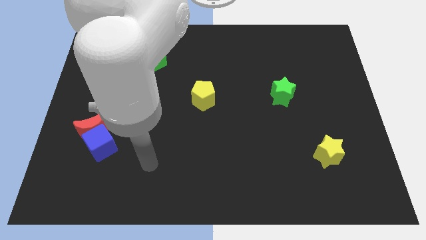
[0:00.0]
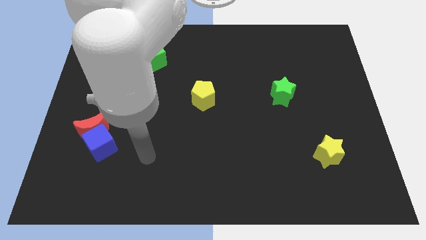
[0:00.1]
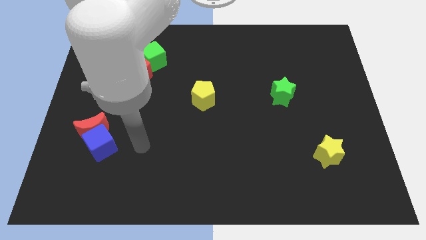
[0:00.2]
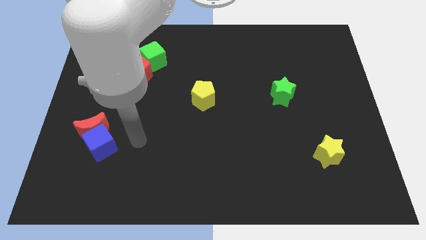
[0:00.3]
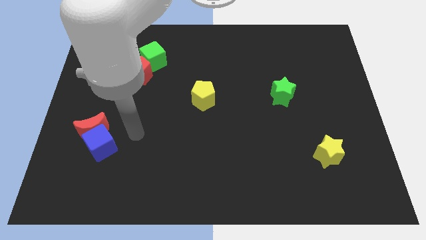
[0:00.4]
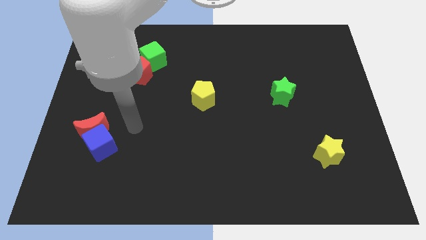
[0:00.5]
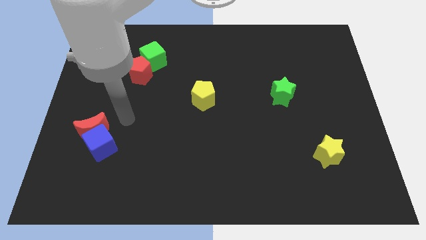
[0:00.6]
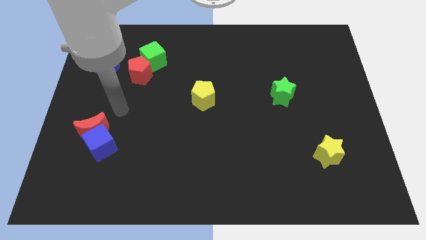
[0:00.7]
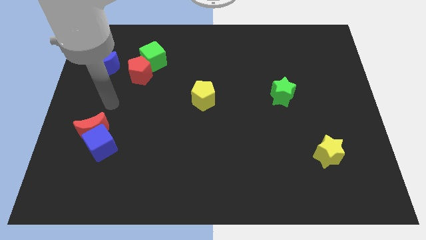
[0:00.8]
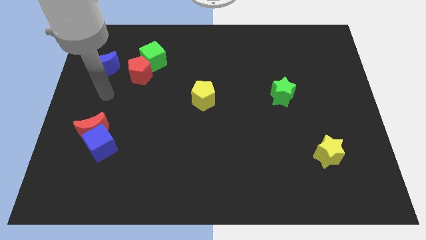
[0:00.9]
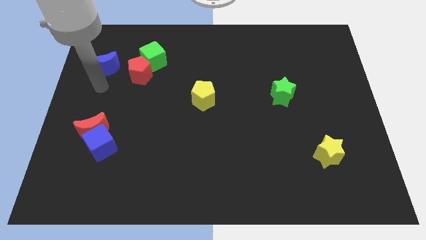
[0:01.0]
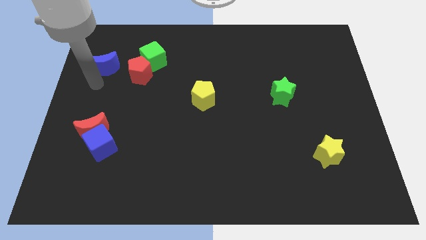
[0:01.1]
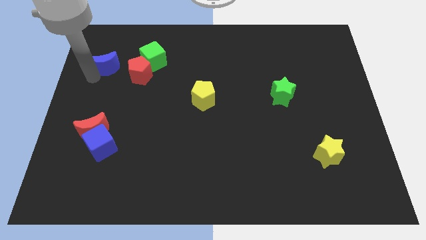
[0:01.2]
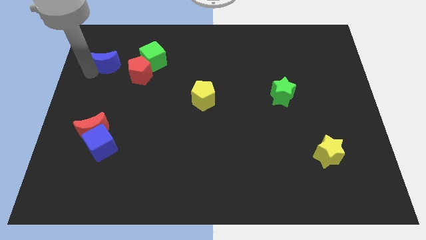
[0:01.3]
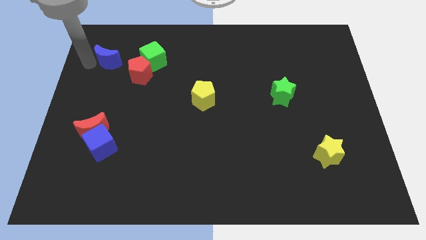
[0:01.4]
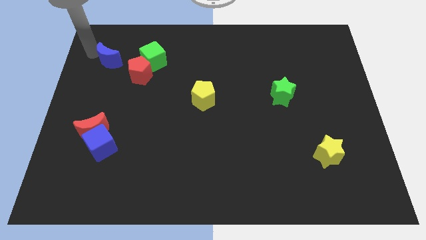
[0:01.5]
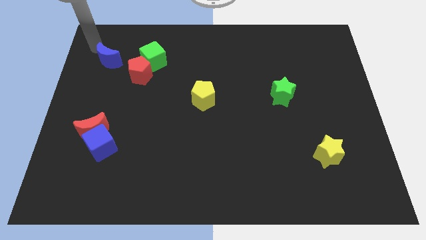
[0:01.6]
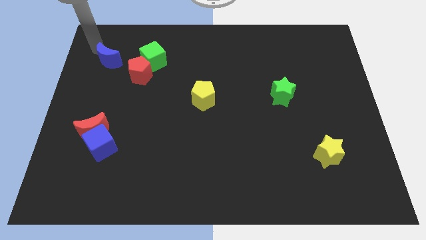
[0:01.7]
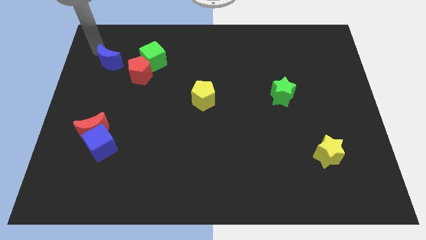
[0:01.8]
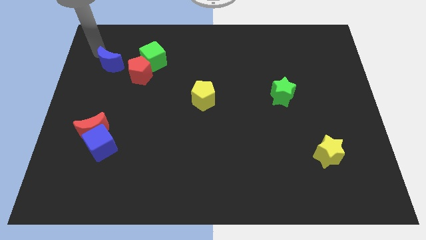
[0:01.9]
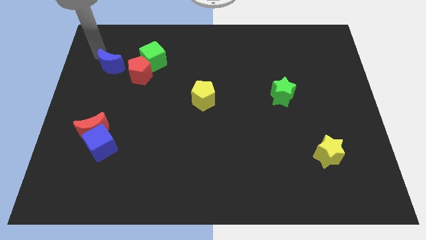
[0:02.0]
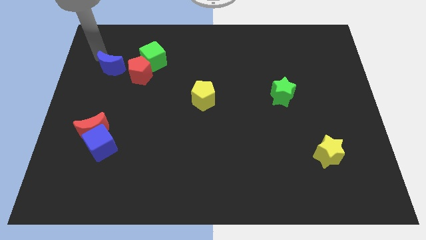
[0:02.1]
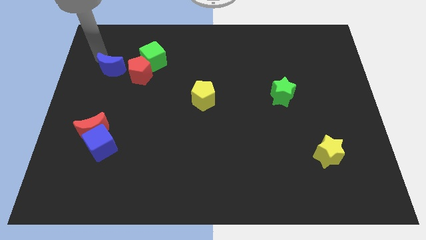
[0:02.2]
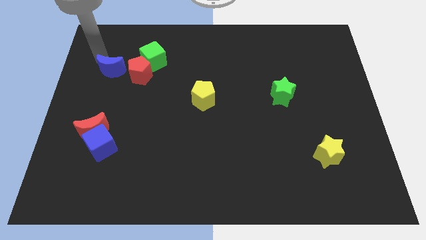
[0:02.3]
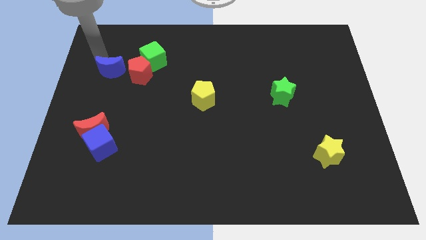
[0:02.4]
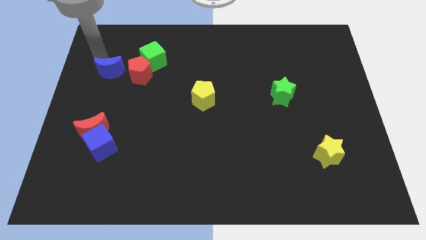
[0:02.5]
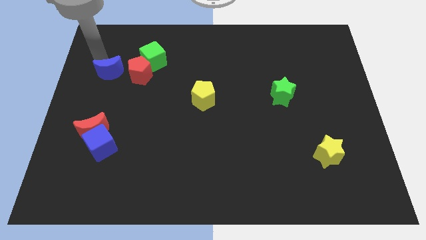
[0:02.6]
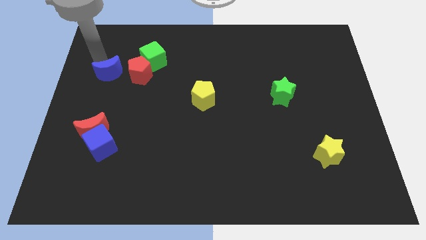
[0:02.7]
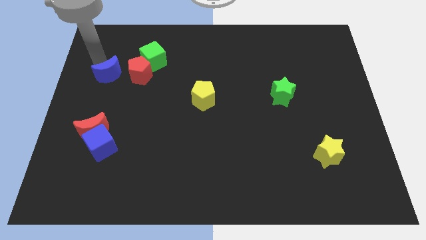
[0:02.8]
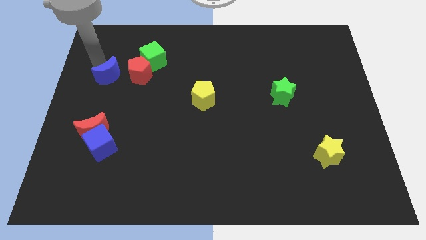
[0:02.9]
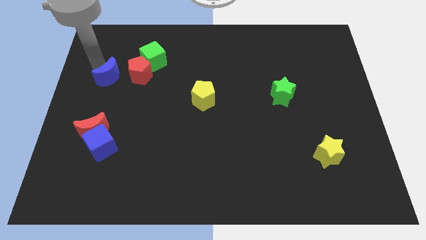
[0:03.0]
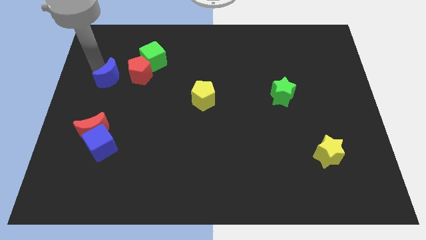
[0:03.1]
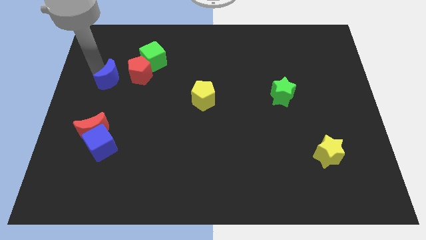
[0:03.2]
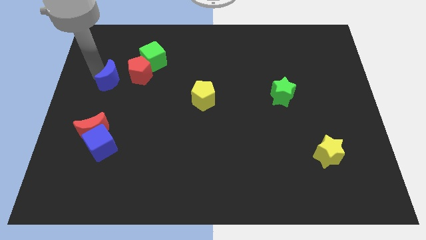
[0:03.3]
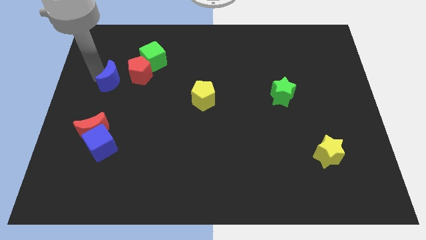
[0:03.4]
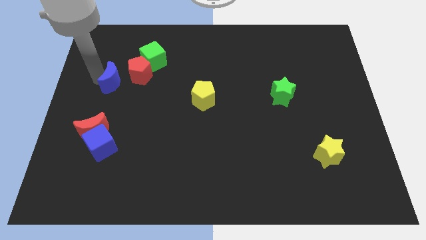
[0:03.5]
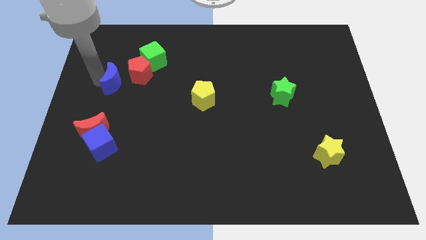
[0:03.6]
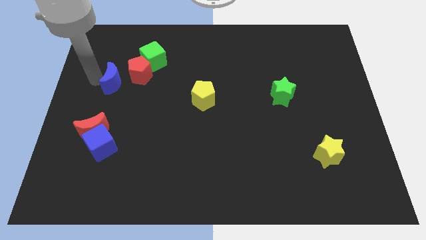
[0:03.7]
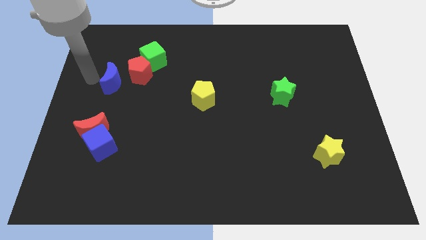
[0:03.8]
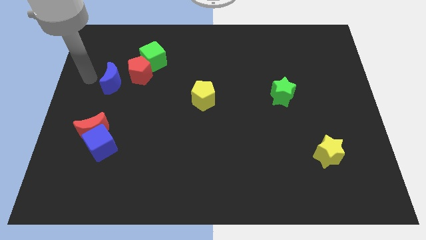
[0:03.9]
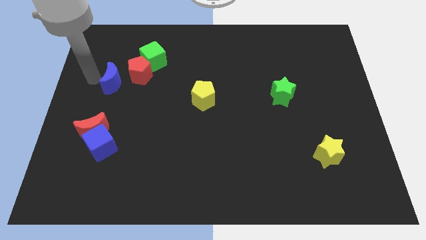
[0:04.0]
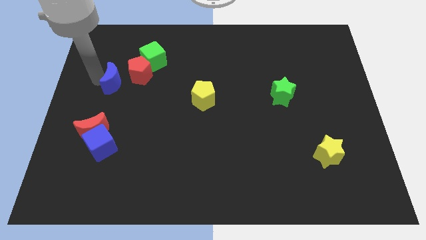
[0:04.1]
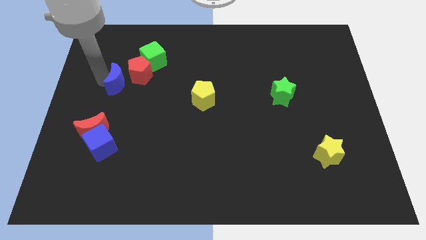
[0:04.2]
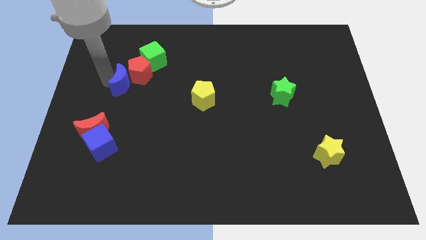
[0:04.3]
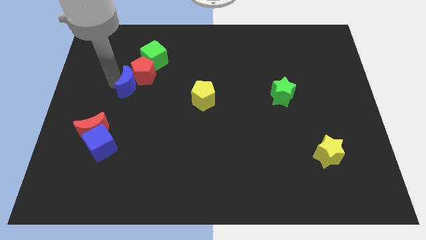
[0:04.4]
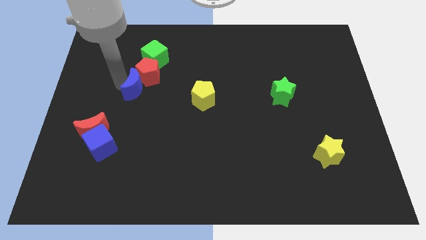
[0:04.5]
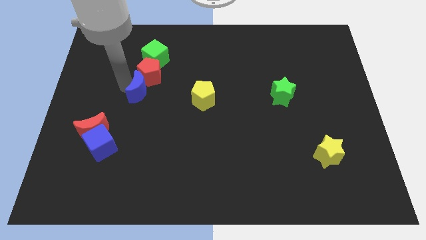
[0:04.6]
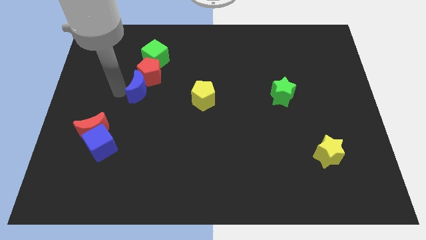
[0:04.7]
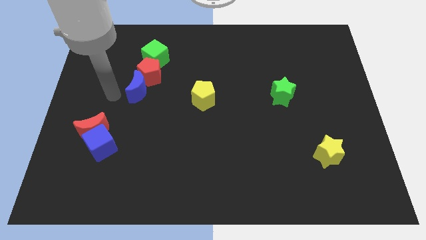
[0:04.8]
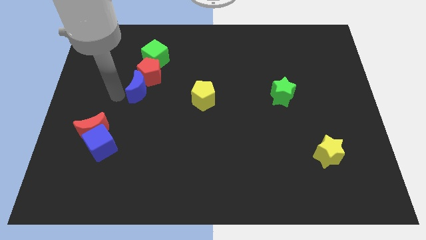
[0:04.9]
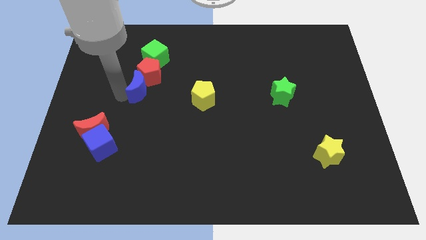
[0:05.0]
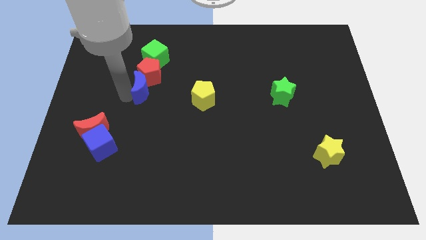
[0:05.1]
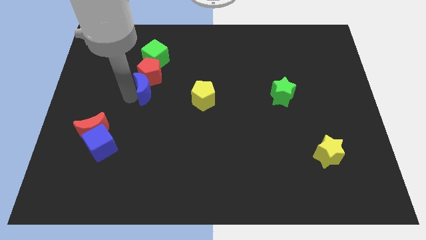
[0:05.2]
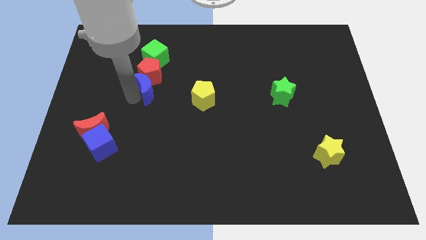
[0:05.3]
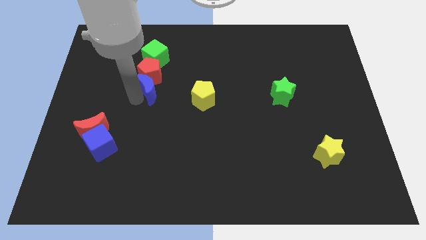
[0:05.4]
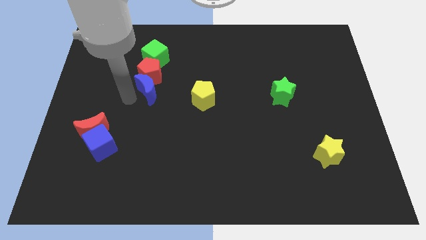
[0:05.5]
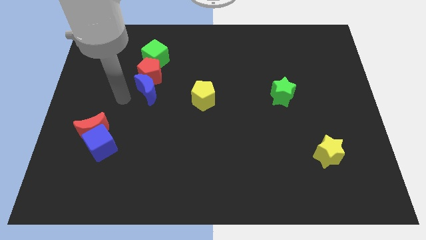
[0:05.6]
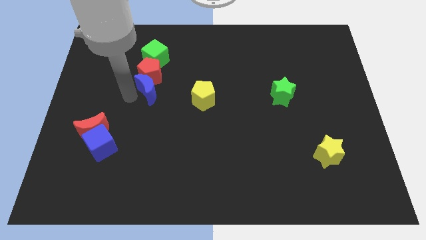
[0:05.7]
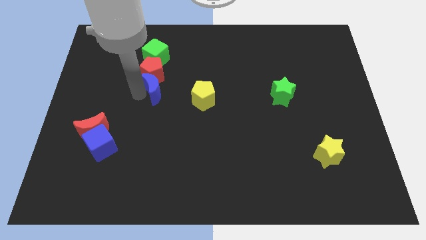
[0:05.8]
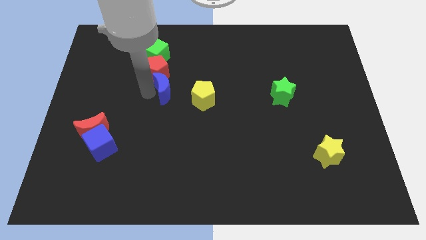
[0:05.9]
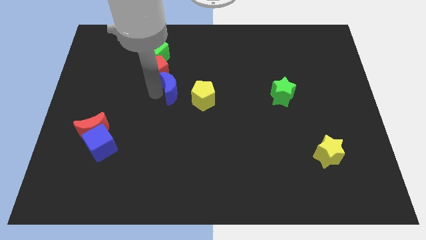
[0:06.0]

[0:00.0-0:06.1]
put the blue moon to the top left of the yellow pentagon

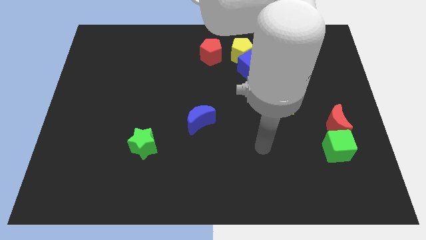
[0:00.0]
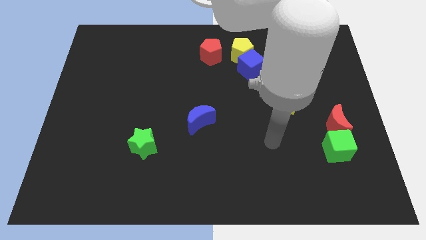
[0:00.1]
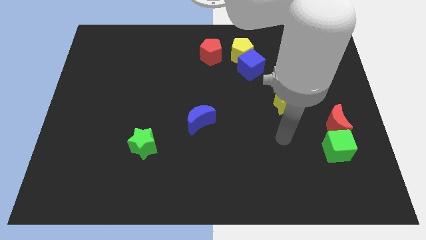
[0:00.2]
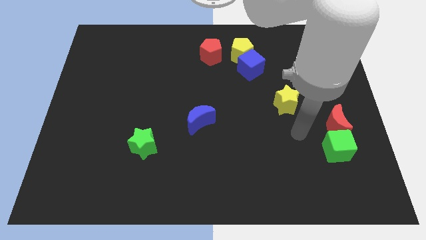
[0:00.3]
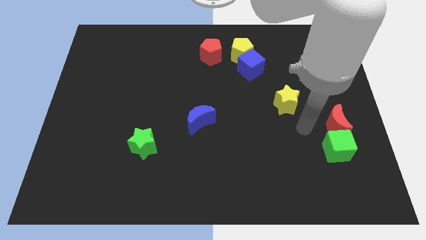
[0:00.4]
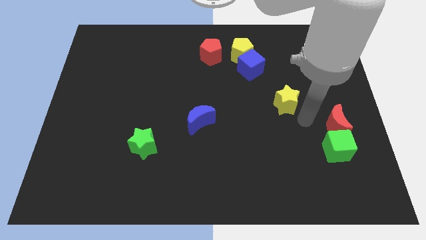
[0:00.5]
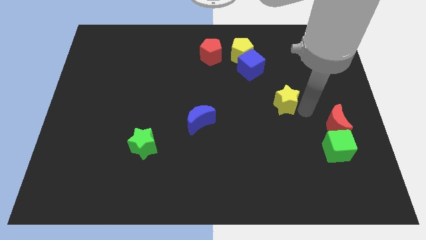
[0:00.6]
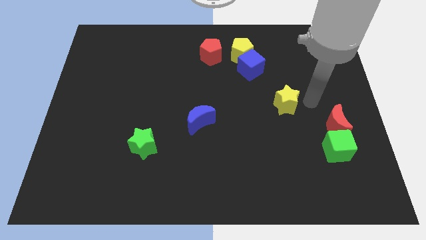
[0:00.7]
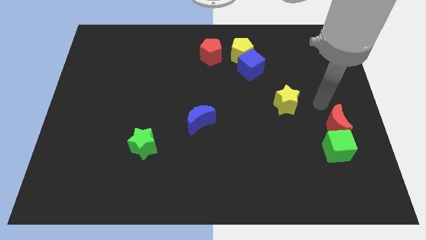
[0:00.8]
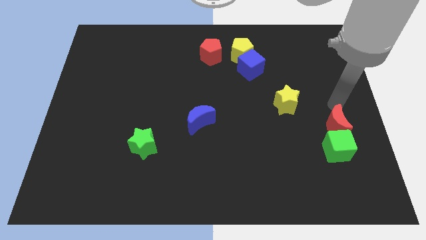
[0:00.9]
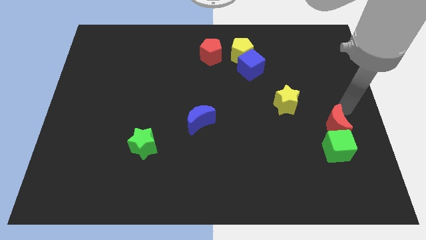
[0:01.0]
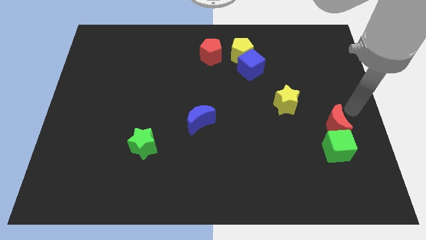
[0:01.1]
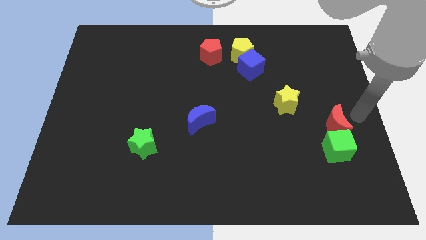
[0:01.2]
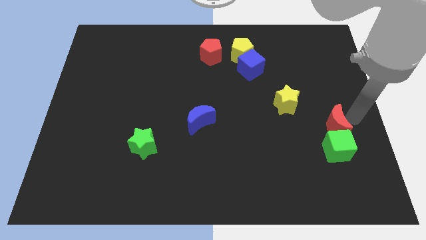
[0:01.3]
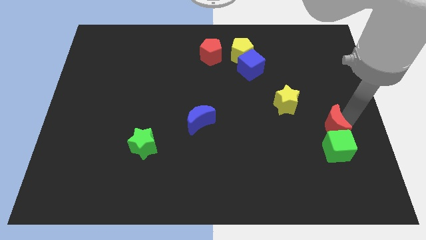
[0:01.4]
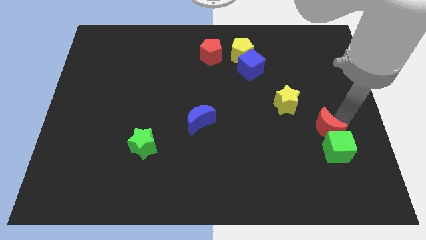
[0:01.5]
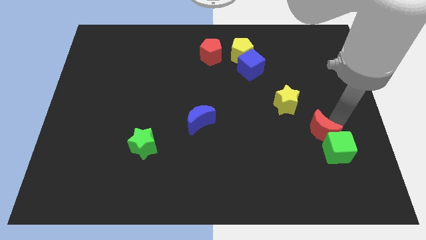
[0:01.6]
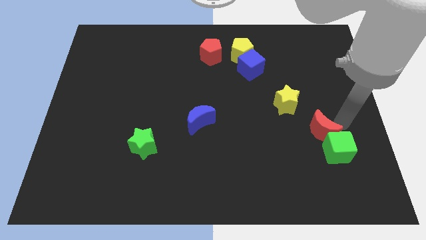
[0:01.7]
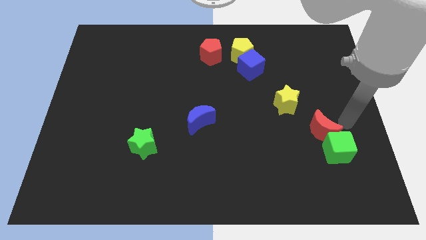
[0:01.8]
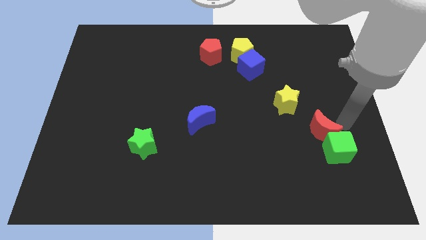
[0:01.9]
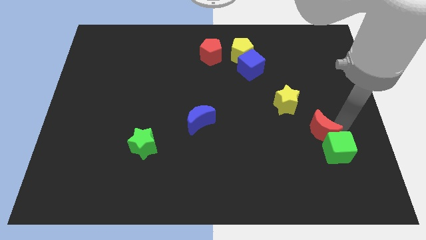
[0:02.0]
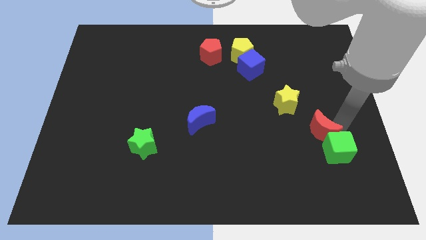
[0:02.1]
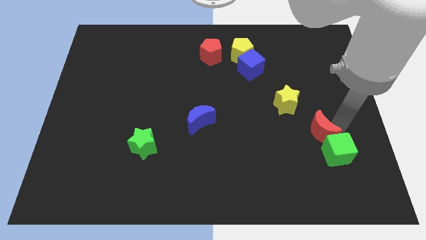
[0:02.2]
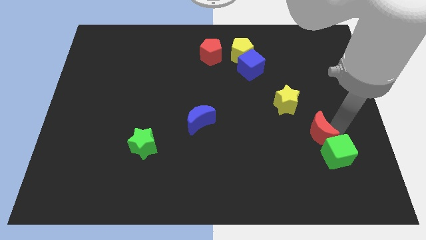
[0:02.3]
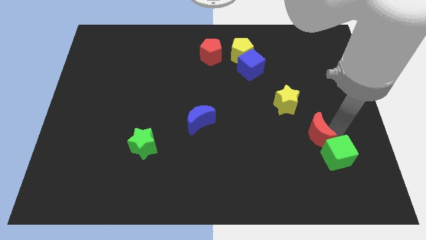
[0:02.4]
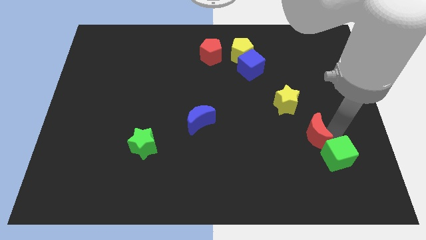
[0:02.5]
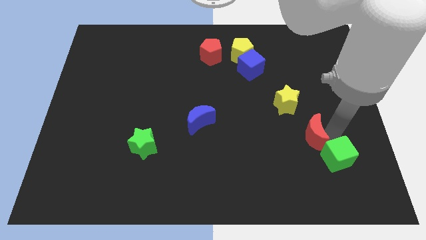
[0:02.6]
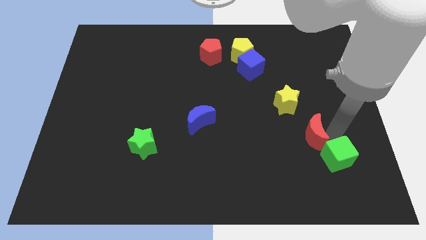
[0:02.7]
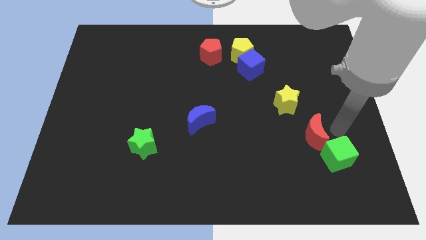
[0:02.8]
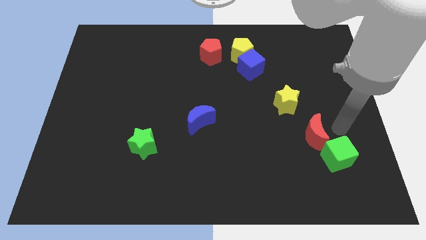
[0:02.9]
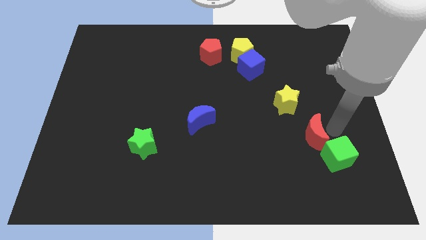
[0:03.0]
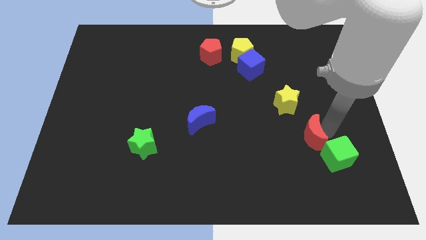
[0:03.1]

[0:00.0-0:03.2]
move the red moon below the yellow star
